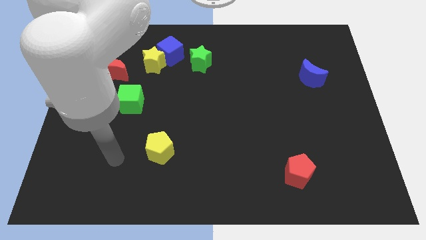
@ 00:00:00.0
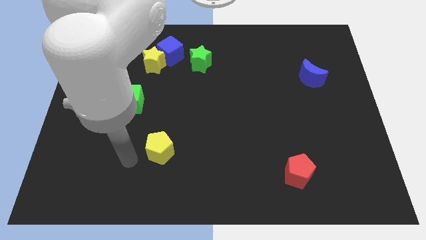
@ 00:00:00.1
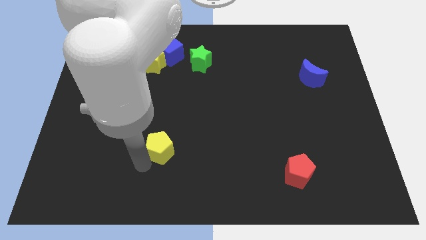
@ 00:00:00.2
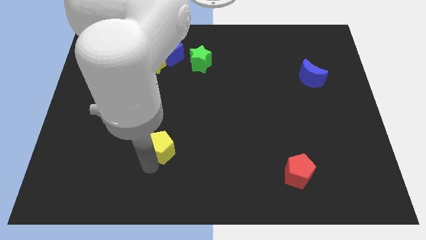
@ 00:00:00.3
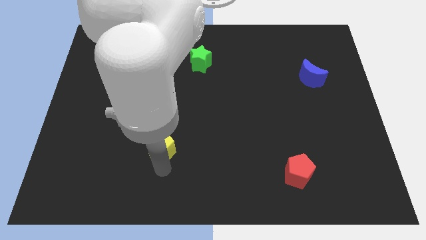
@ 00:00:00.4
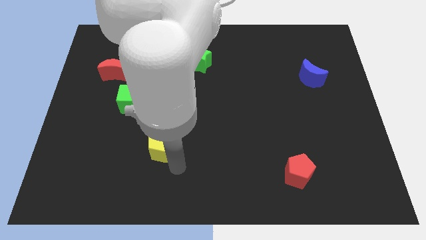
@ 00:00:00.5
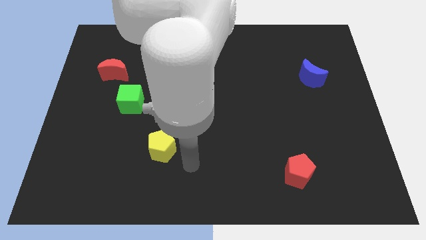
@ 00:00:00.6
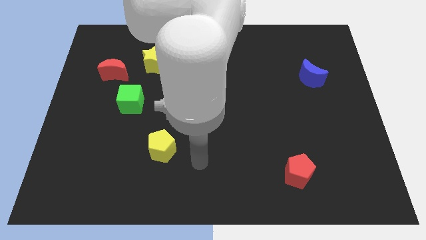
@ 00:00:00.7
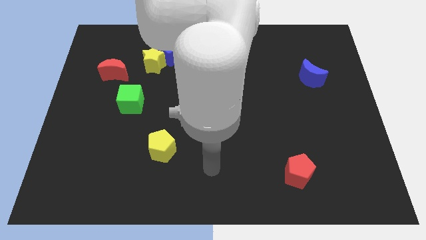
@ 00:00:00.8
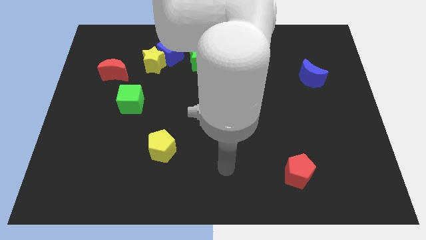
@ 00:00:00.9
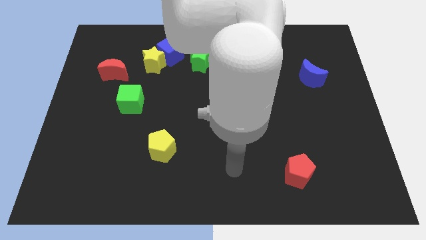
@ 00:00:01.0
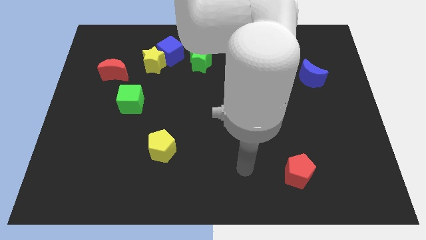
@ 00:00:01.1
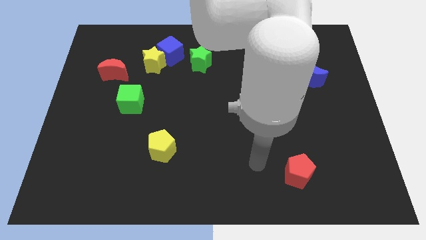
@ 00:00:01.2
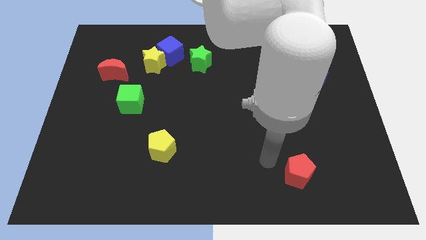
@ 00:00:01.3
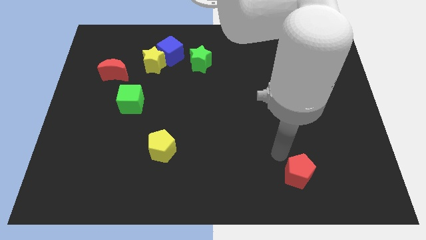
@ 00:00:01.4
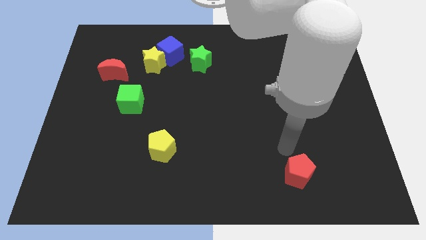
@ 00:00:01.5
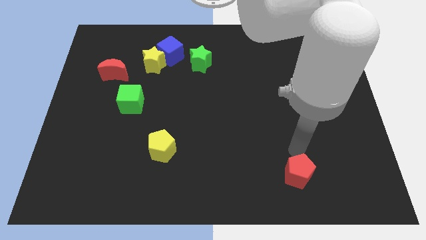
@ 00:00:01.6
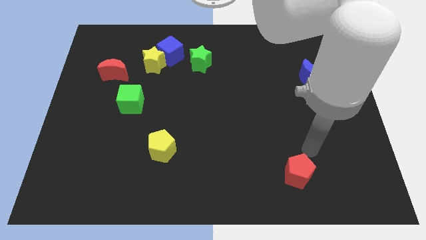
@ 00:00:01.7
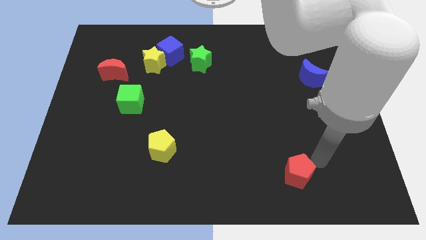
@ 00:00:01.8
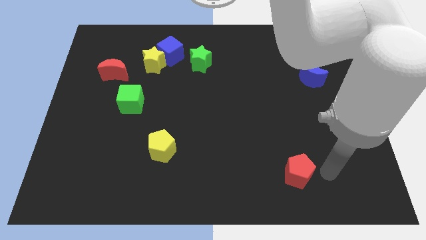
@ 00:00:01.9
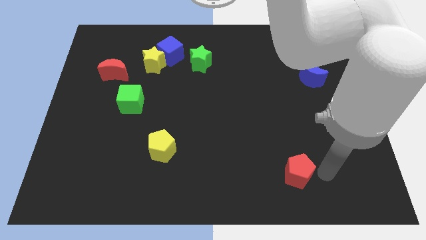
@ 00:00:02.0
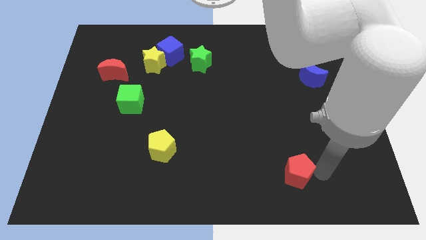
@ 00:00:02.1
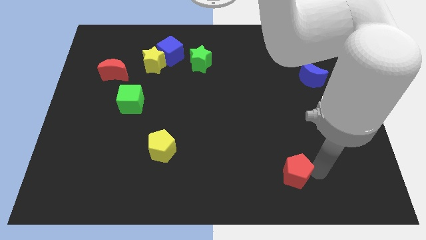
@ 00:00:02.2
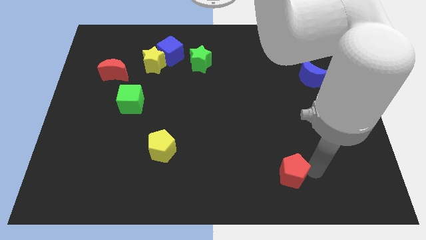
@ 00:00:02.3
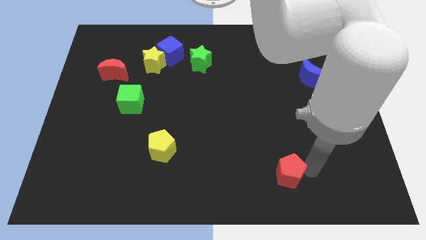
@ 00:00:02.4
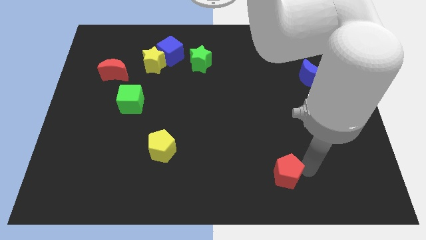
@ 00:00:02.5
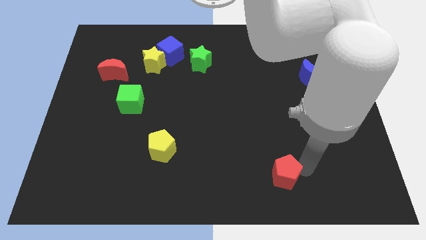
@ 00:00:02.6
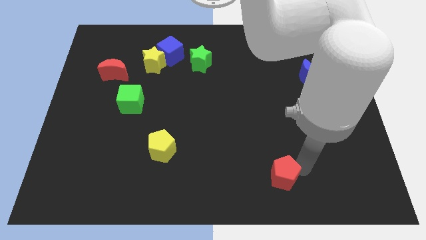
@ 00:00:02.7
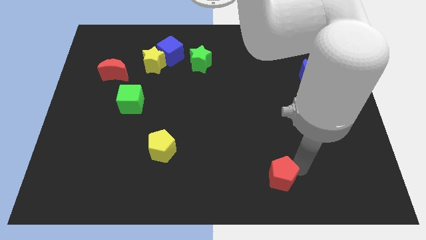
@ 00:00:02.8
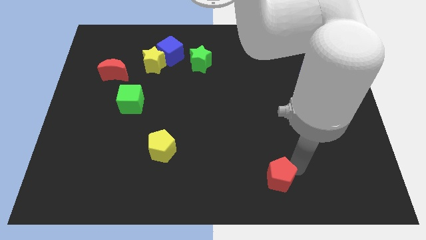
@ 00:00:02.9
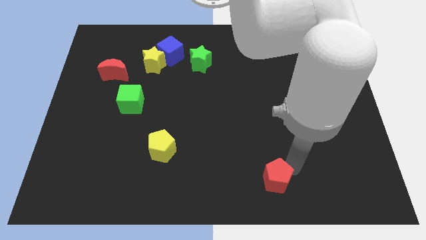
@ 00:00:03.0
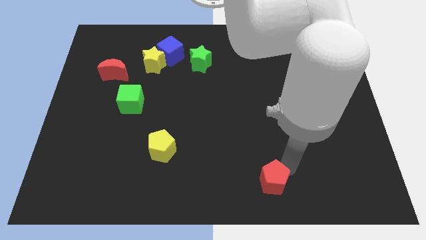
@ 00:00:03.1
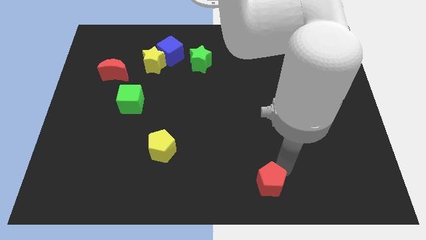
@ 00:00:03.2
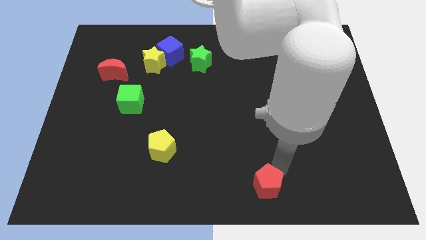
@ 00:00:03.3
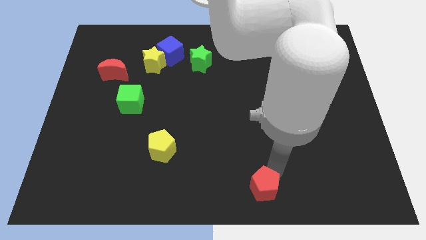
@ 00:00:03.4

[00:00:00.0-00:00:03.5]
slightly push the red pentagon left

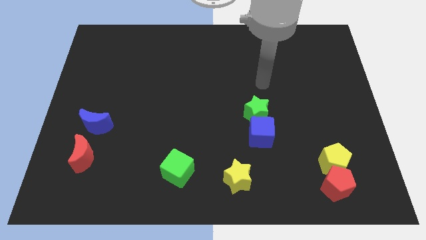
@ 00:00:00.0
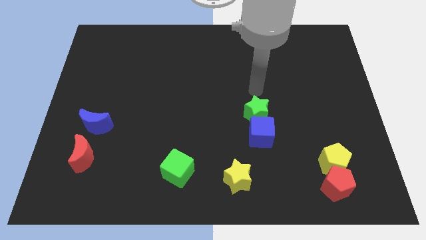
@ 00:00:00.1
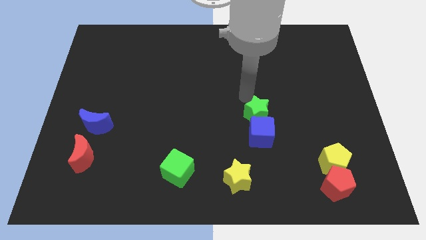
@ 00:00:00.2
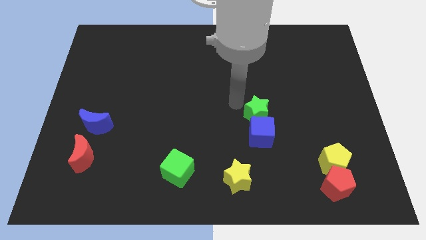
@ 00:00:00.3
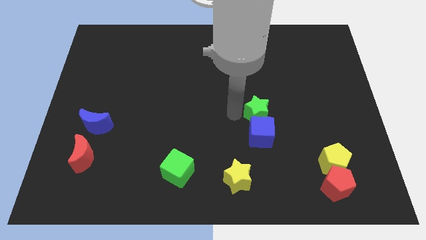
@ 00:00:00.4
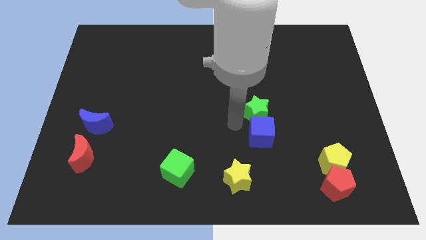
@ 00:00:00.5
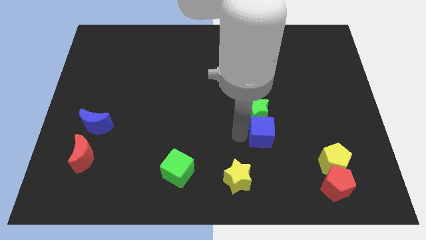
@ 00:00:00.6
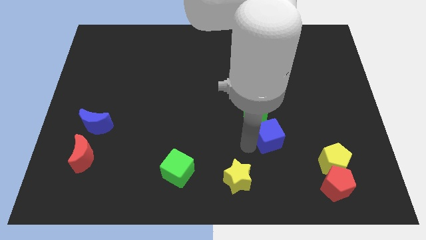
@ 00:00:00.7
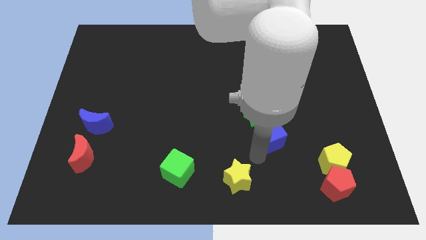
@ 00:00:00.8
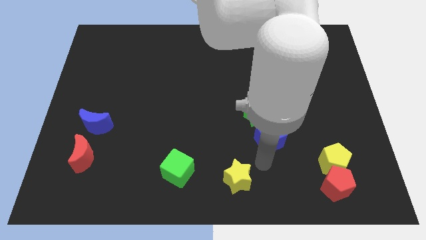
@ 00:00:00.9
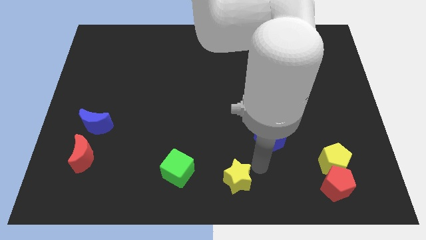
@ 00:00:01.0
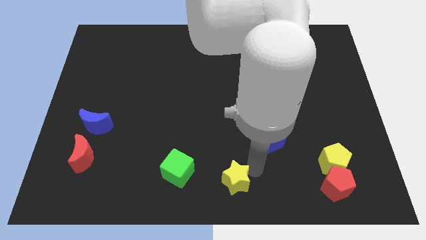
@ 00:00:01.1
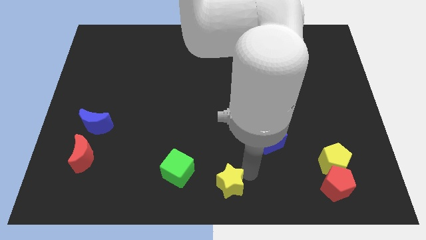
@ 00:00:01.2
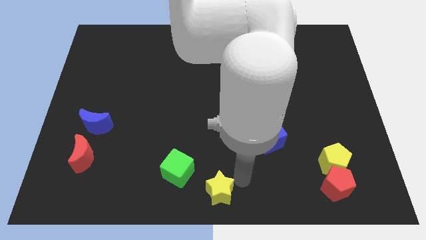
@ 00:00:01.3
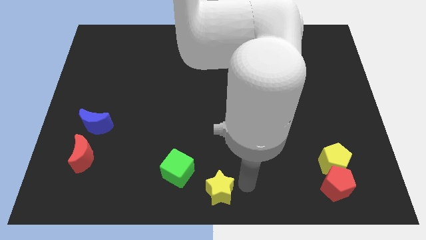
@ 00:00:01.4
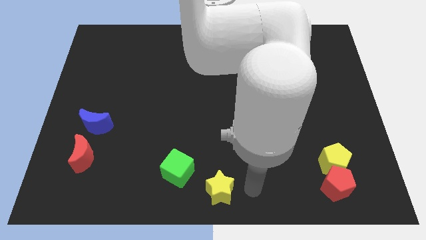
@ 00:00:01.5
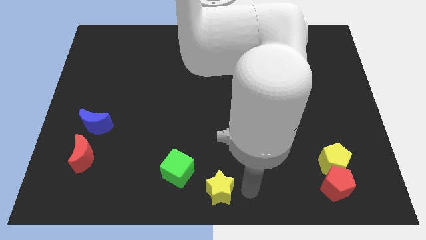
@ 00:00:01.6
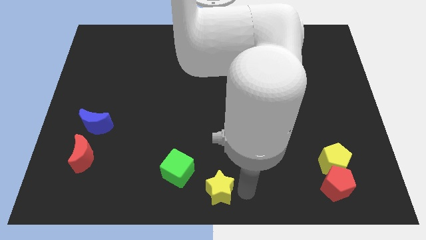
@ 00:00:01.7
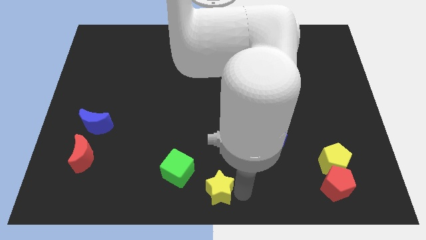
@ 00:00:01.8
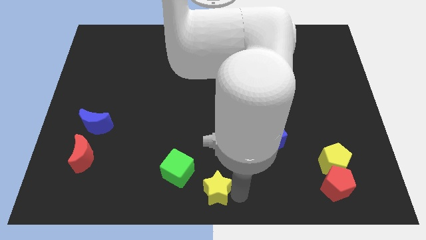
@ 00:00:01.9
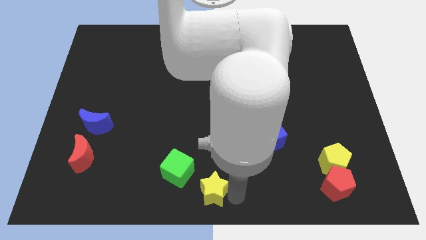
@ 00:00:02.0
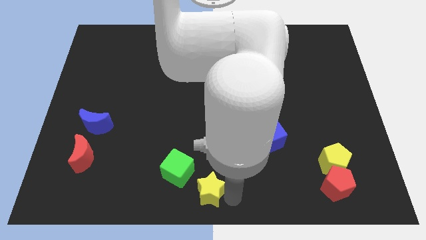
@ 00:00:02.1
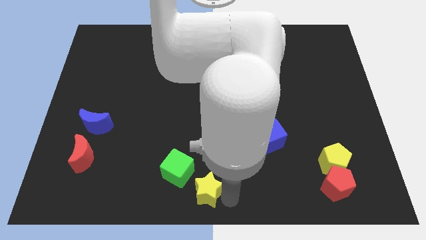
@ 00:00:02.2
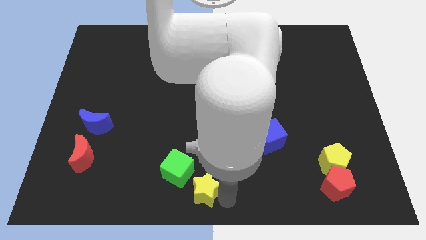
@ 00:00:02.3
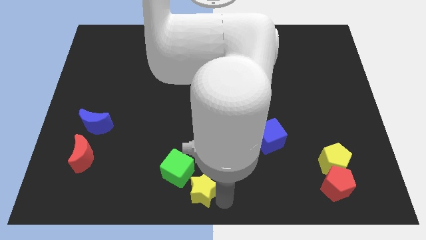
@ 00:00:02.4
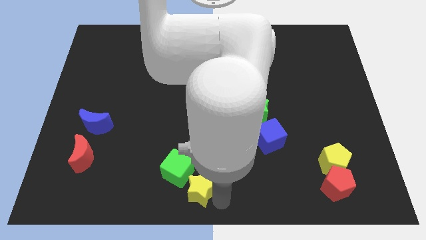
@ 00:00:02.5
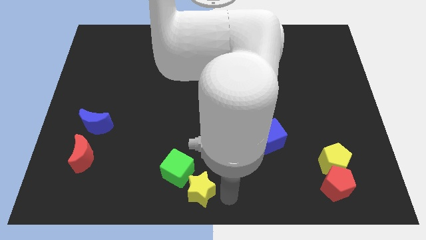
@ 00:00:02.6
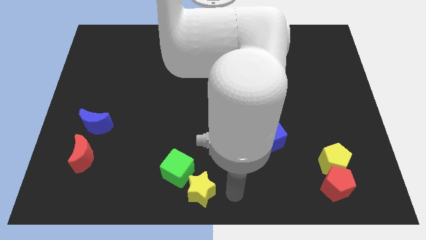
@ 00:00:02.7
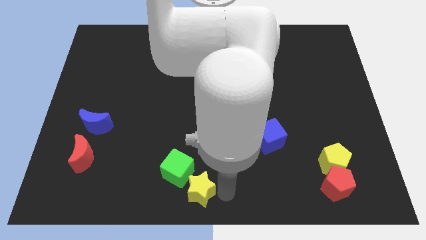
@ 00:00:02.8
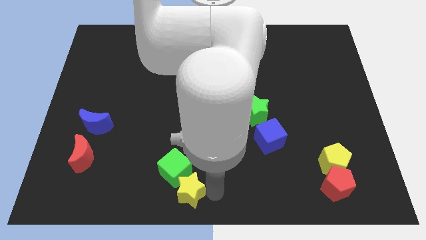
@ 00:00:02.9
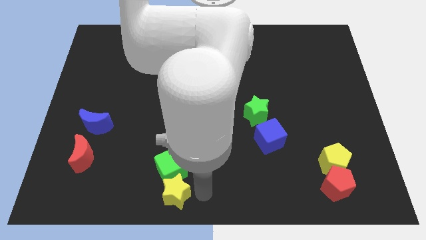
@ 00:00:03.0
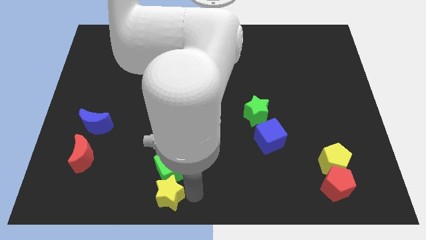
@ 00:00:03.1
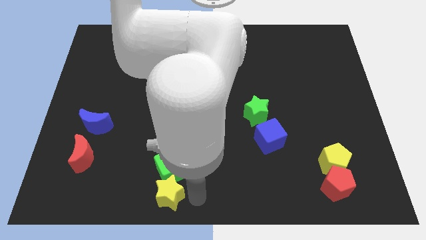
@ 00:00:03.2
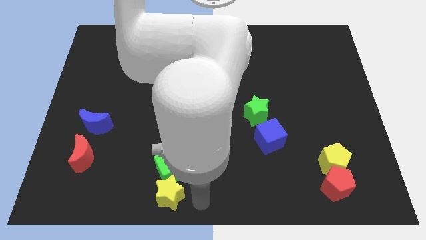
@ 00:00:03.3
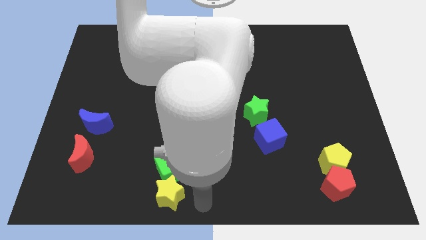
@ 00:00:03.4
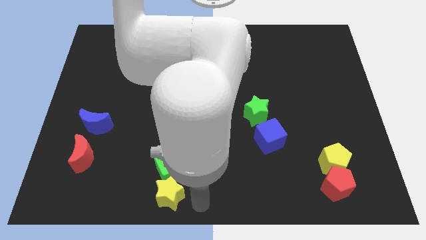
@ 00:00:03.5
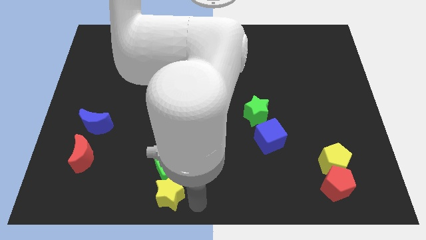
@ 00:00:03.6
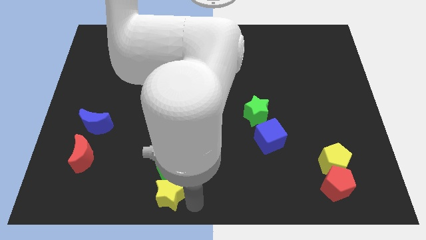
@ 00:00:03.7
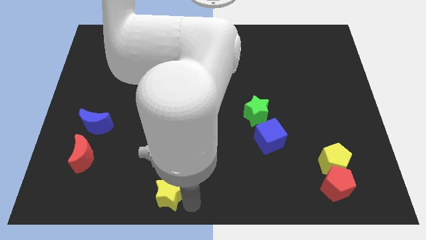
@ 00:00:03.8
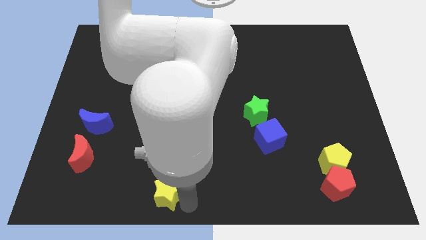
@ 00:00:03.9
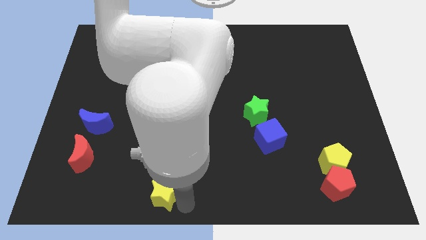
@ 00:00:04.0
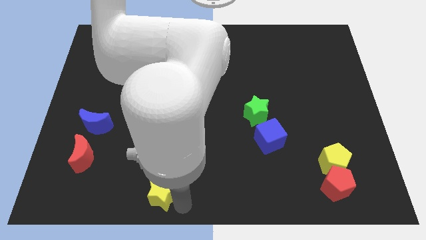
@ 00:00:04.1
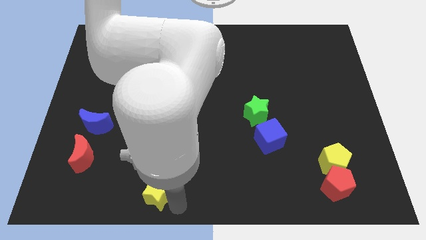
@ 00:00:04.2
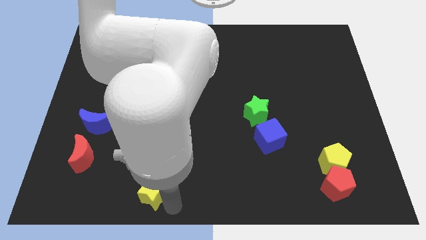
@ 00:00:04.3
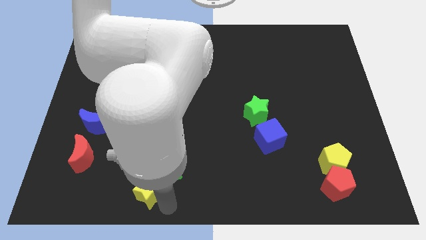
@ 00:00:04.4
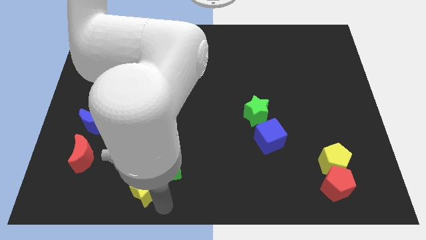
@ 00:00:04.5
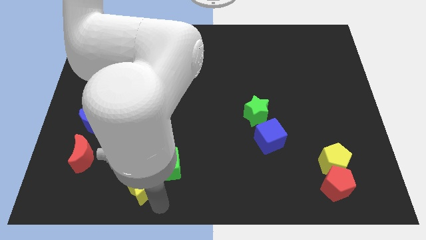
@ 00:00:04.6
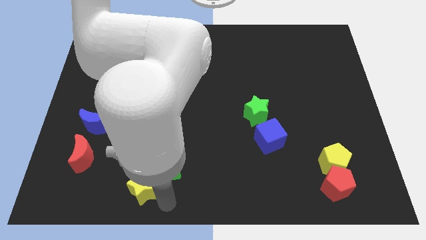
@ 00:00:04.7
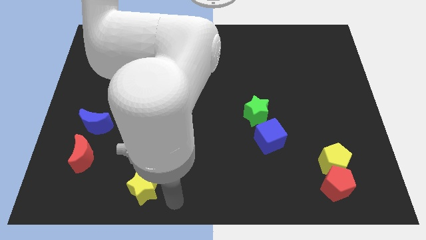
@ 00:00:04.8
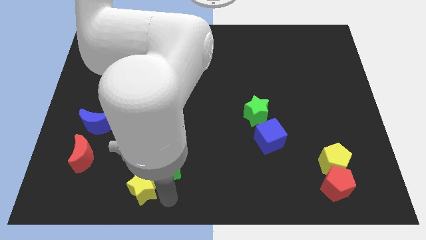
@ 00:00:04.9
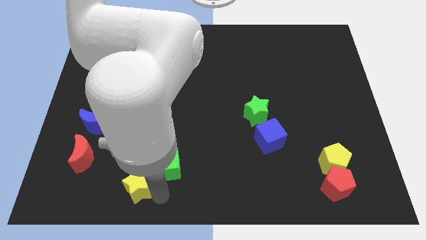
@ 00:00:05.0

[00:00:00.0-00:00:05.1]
move the yellow star to the left
